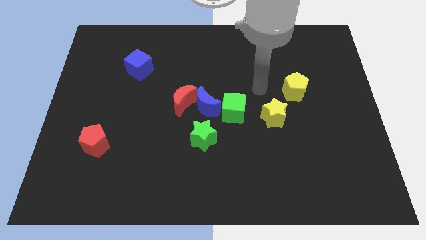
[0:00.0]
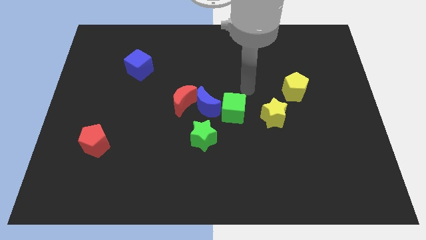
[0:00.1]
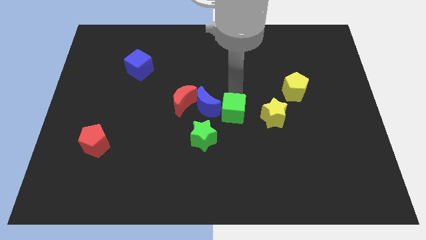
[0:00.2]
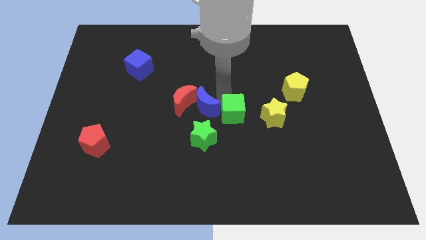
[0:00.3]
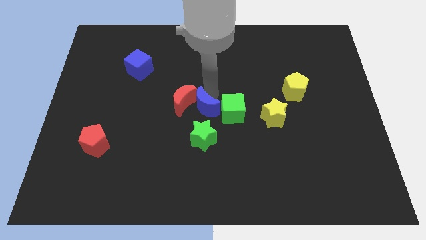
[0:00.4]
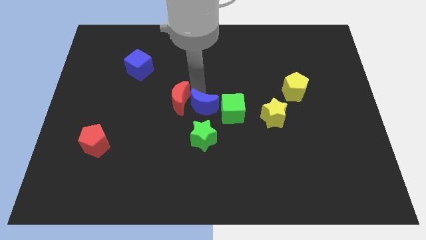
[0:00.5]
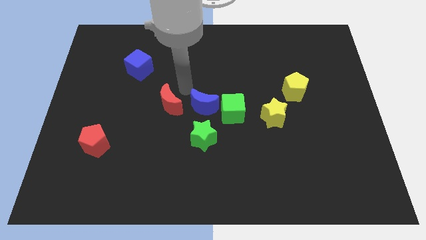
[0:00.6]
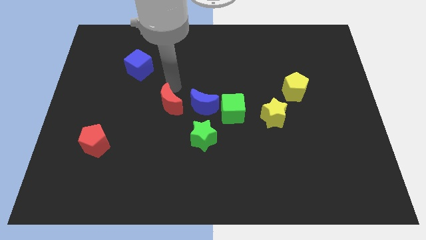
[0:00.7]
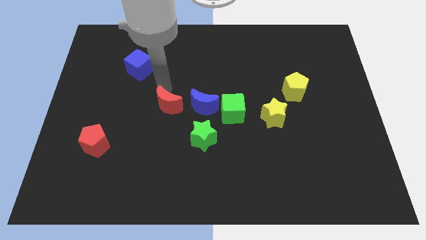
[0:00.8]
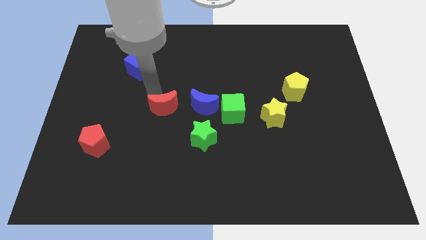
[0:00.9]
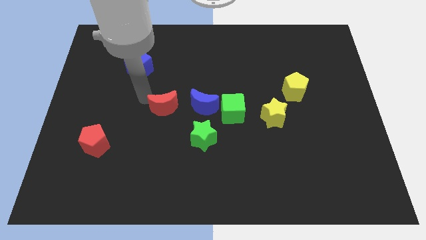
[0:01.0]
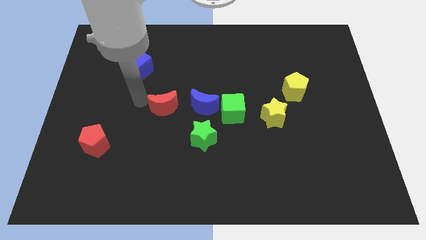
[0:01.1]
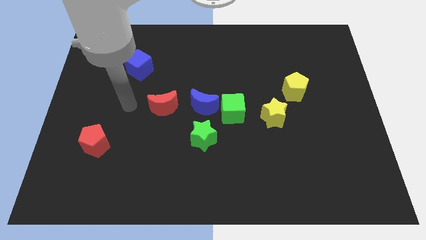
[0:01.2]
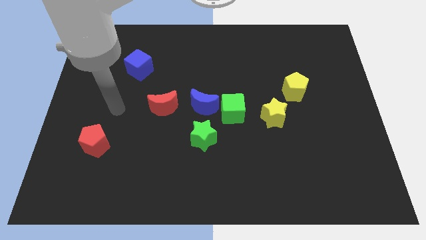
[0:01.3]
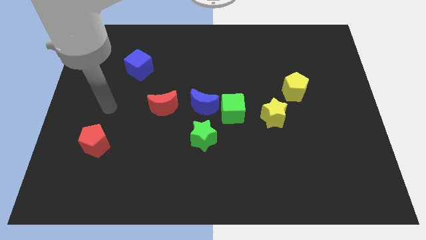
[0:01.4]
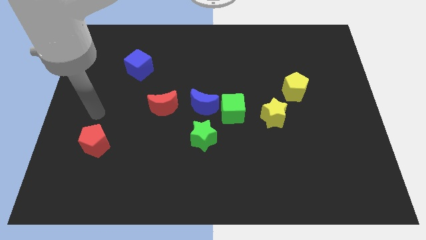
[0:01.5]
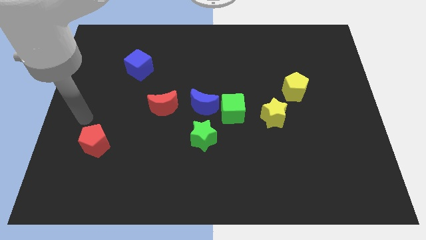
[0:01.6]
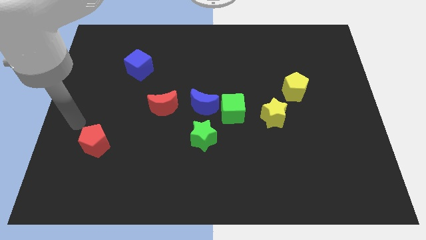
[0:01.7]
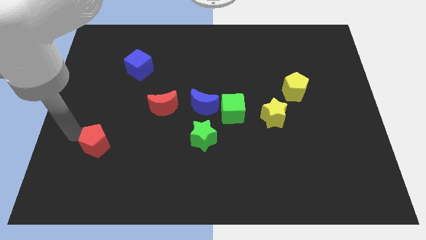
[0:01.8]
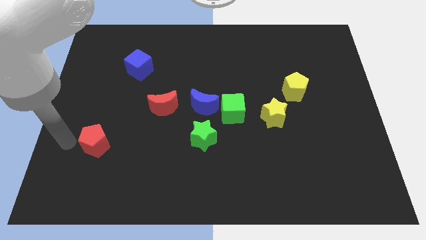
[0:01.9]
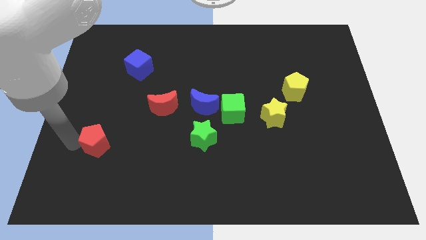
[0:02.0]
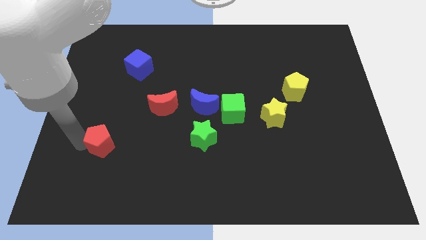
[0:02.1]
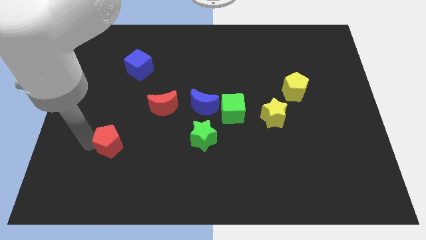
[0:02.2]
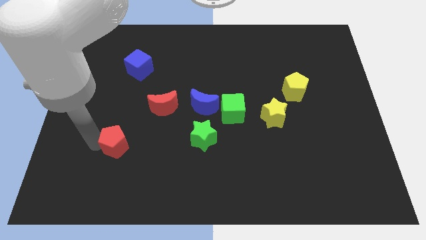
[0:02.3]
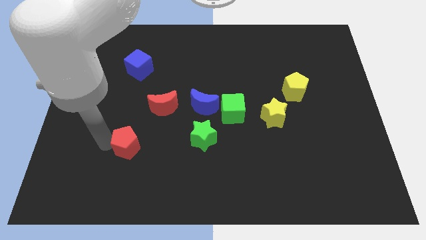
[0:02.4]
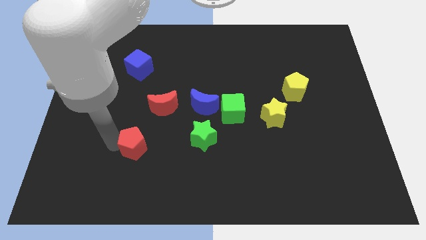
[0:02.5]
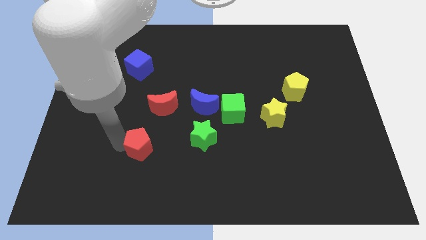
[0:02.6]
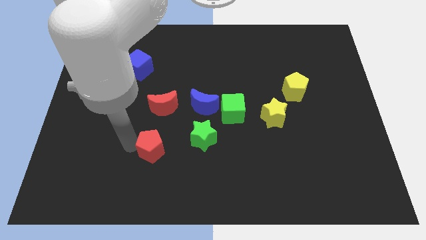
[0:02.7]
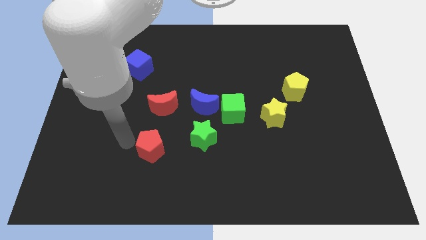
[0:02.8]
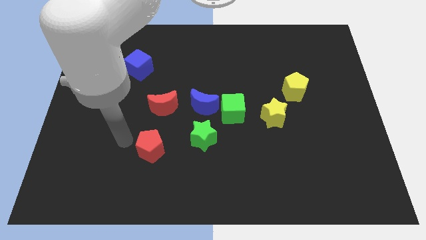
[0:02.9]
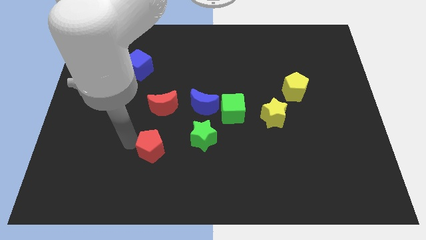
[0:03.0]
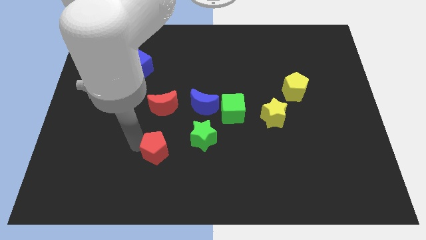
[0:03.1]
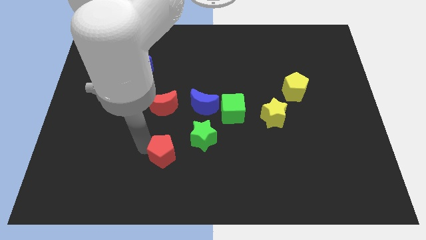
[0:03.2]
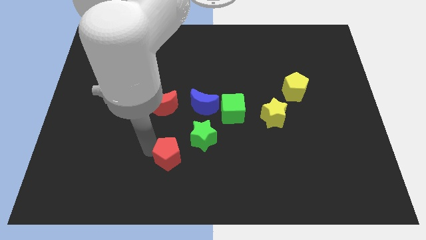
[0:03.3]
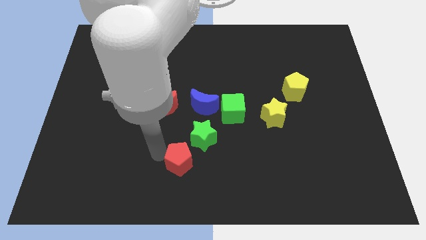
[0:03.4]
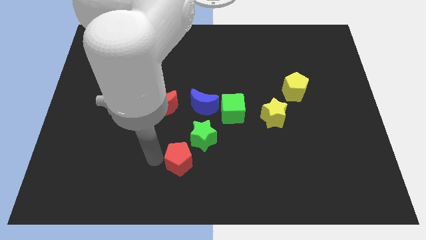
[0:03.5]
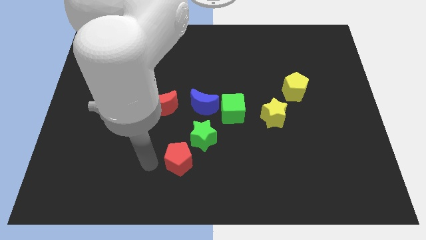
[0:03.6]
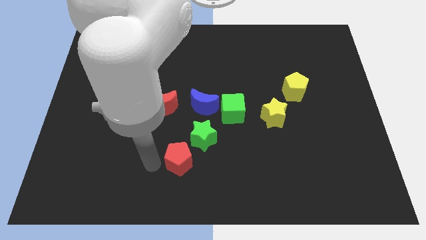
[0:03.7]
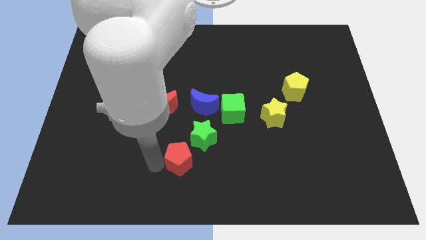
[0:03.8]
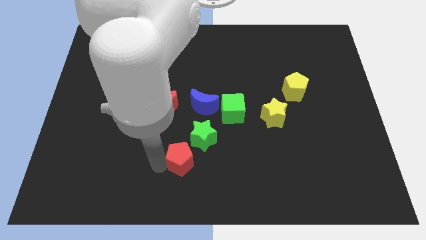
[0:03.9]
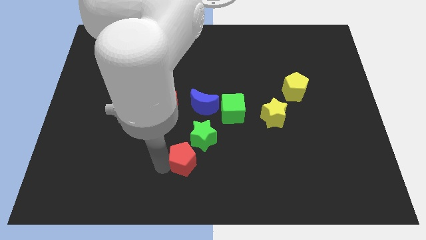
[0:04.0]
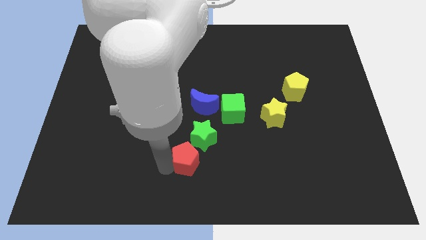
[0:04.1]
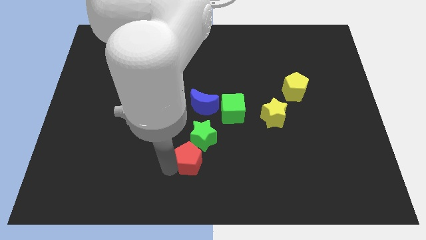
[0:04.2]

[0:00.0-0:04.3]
push the red pentagon to the right

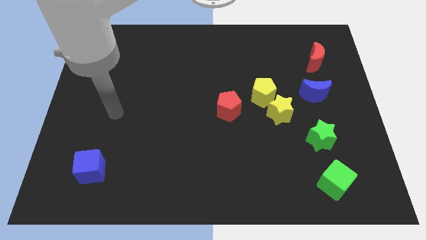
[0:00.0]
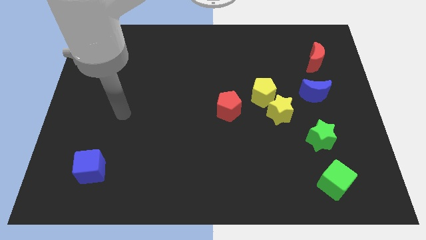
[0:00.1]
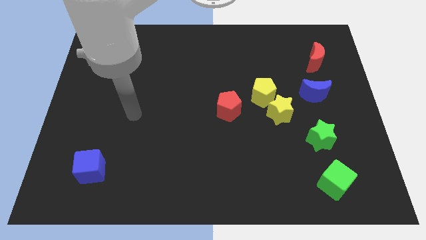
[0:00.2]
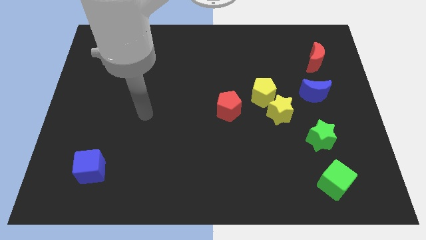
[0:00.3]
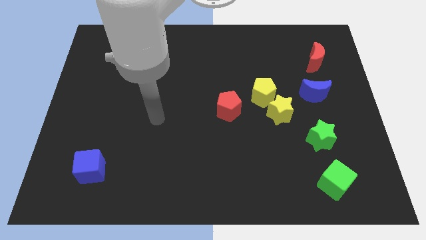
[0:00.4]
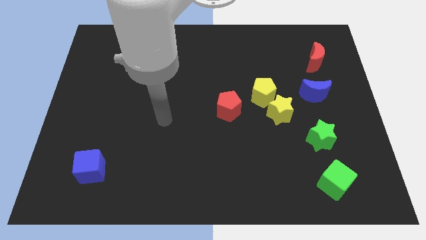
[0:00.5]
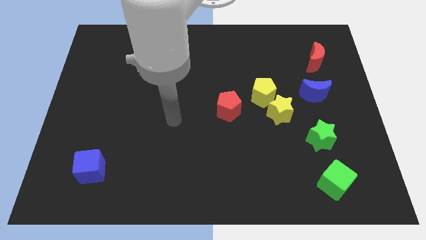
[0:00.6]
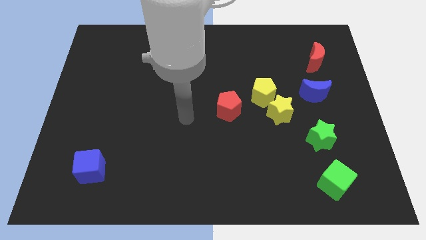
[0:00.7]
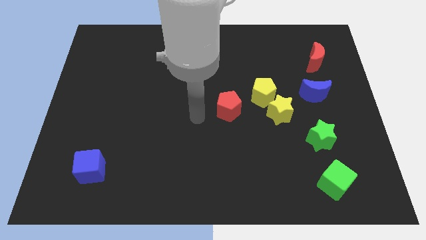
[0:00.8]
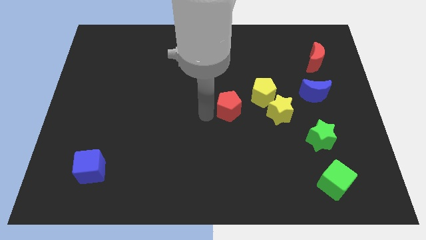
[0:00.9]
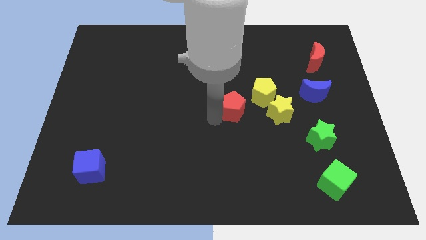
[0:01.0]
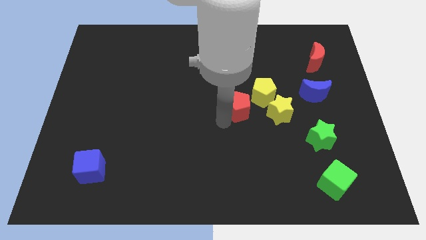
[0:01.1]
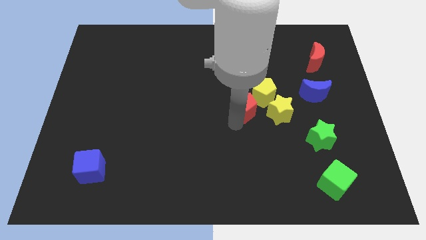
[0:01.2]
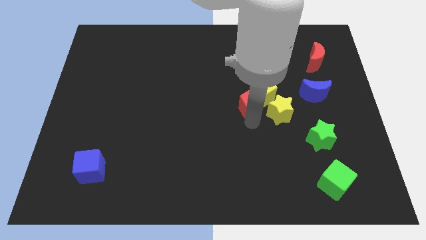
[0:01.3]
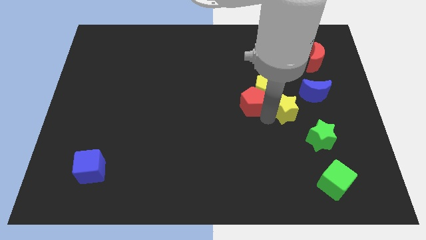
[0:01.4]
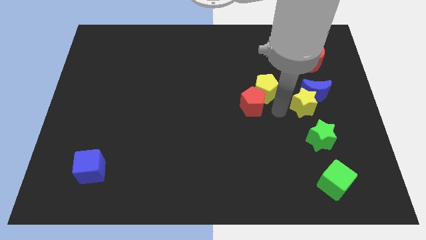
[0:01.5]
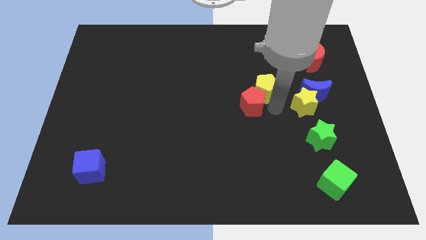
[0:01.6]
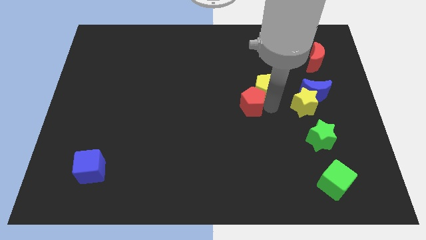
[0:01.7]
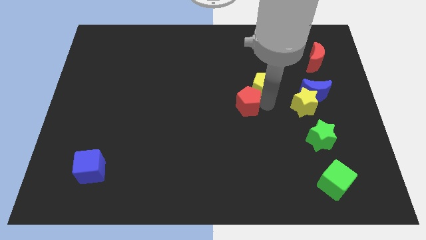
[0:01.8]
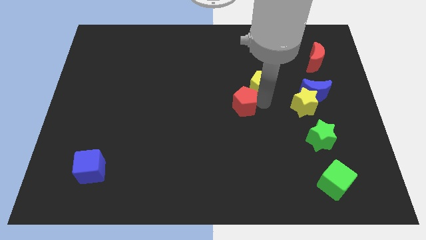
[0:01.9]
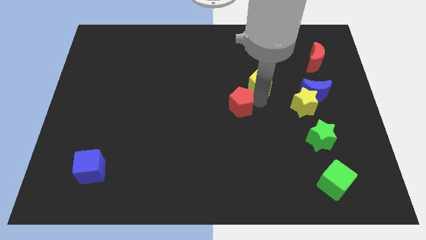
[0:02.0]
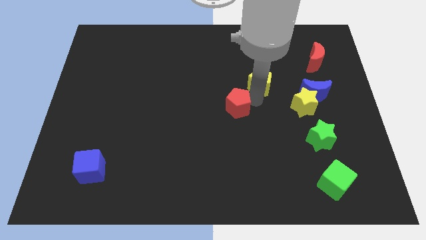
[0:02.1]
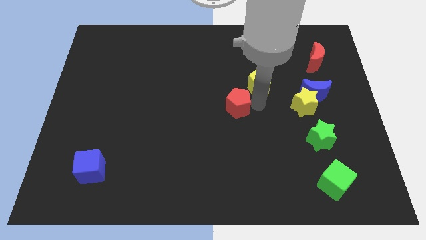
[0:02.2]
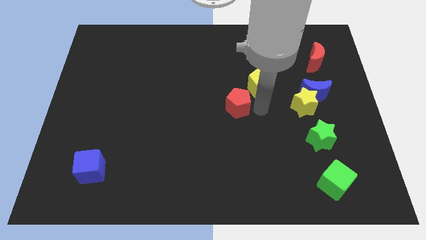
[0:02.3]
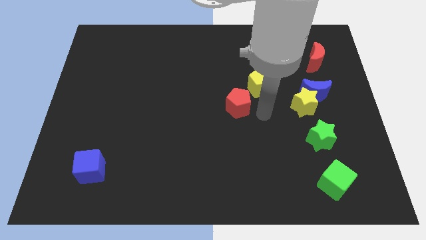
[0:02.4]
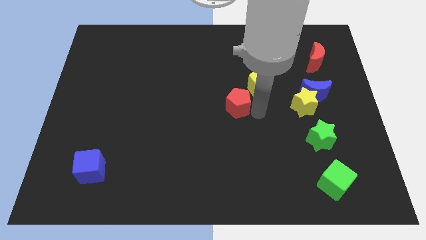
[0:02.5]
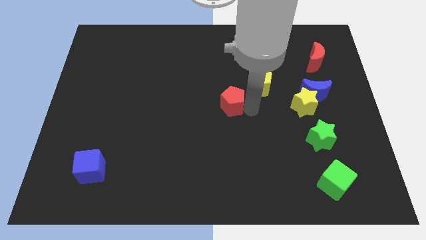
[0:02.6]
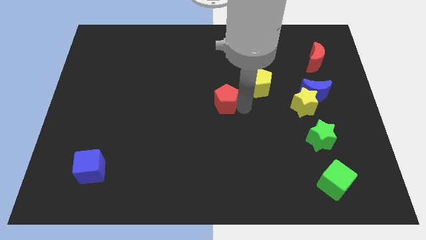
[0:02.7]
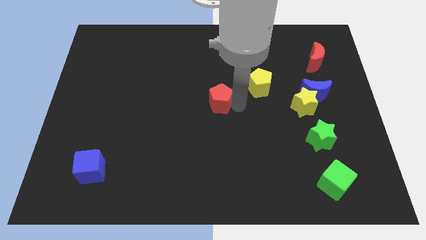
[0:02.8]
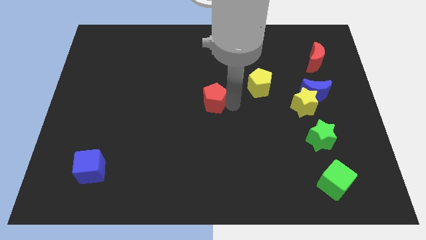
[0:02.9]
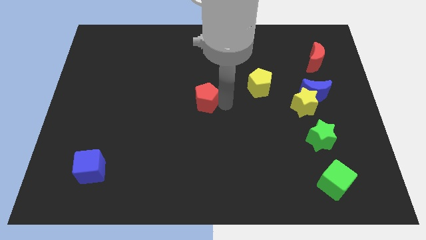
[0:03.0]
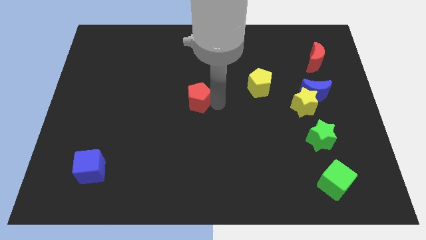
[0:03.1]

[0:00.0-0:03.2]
slightly push the red pentagon up and left
